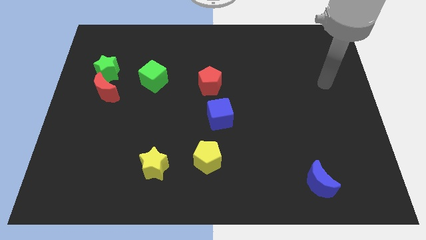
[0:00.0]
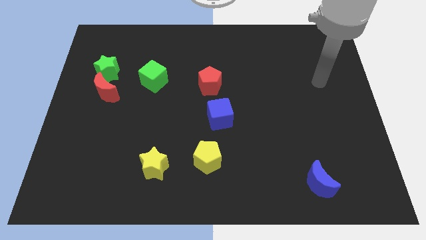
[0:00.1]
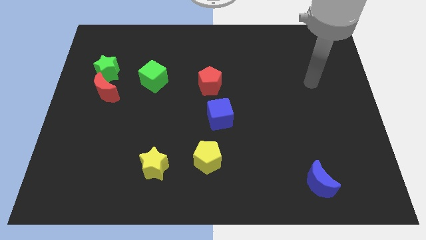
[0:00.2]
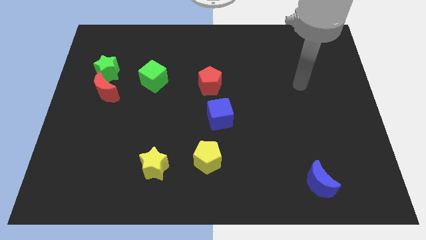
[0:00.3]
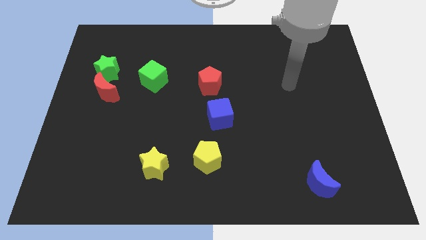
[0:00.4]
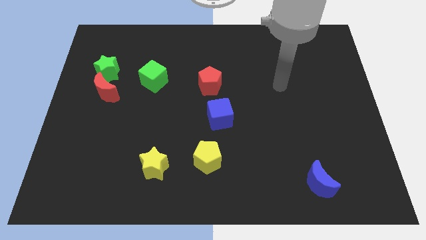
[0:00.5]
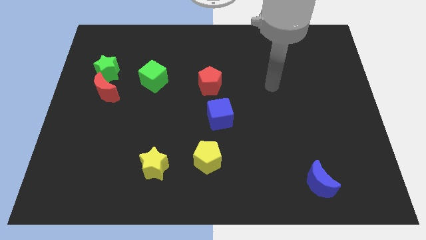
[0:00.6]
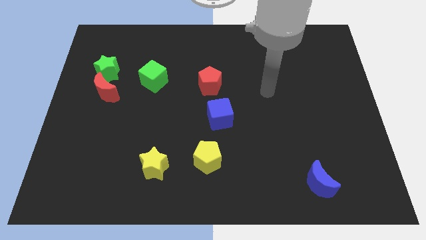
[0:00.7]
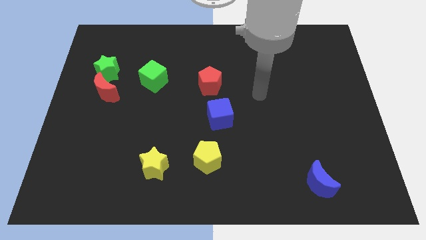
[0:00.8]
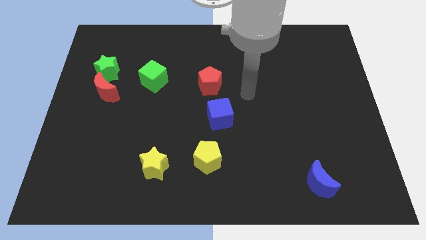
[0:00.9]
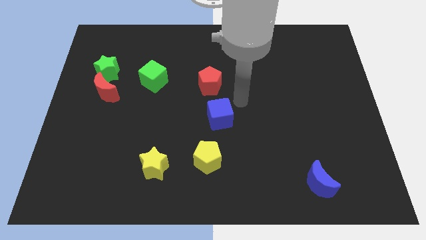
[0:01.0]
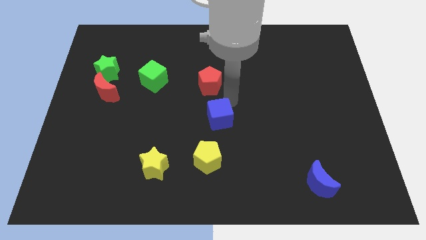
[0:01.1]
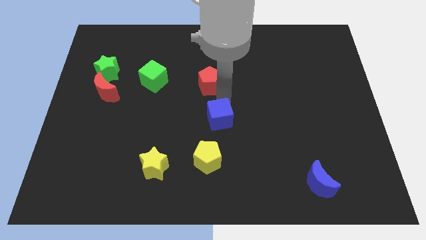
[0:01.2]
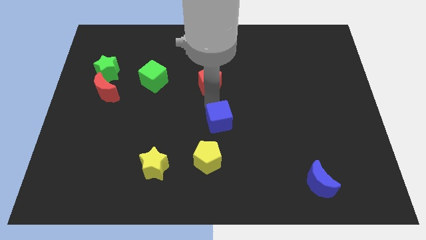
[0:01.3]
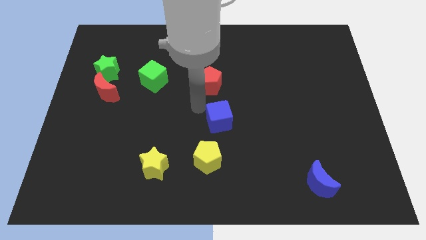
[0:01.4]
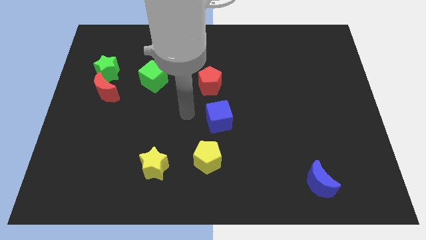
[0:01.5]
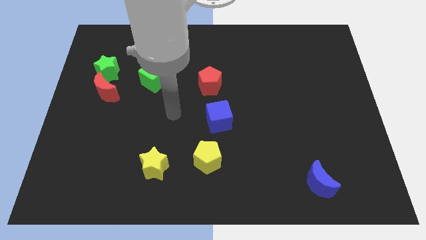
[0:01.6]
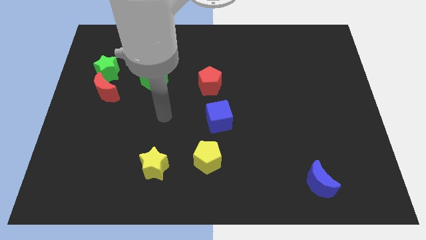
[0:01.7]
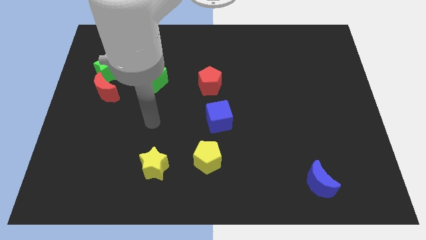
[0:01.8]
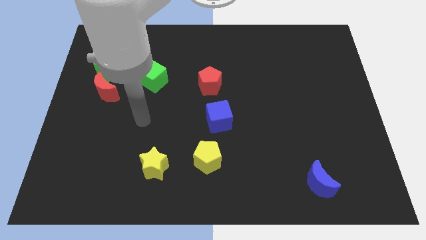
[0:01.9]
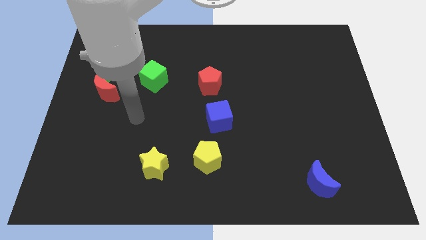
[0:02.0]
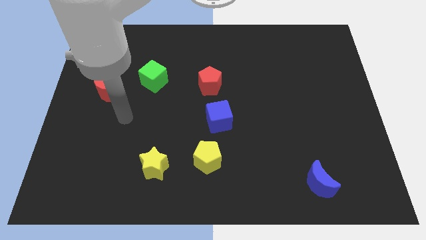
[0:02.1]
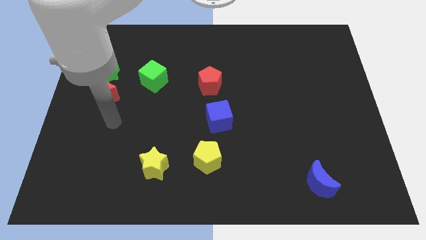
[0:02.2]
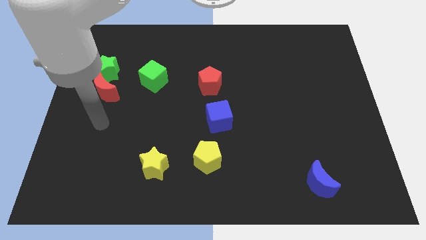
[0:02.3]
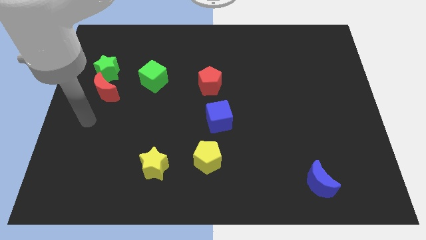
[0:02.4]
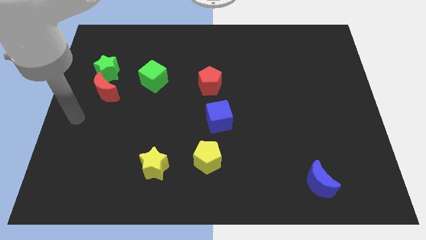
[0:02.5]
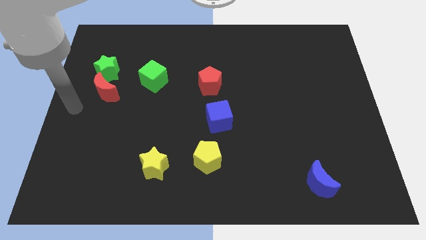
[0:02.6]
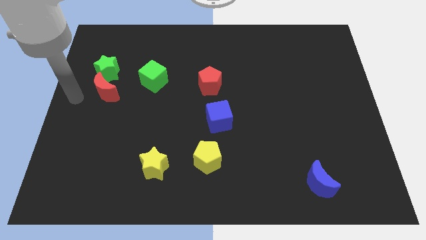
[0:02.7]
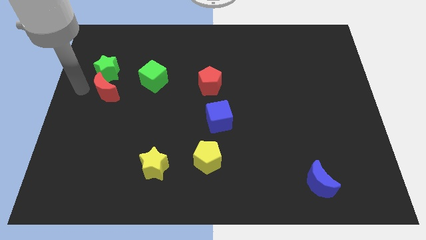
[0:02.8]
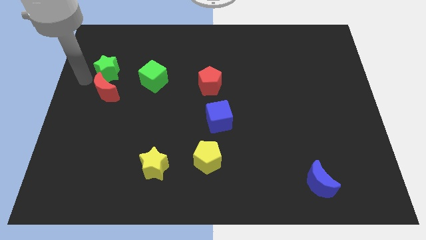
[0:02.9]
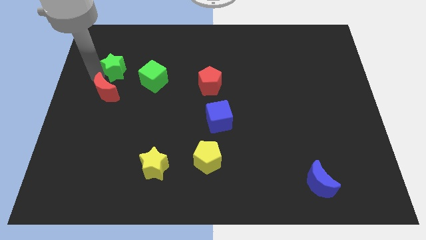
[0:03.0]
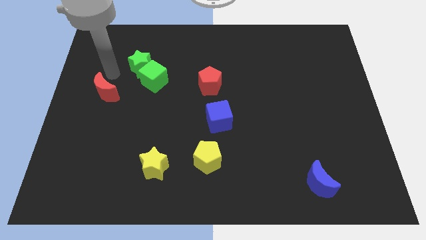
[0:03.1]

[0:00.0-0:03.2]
separate the red moon from the green star

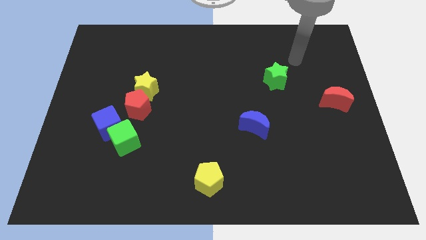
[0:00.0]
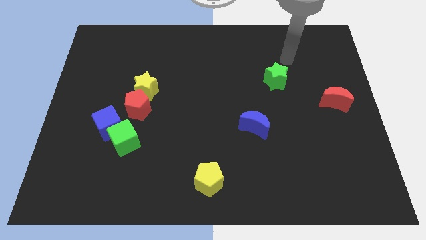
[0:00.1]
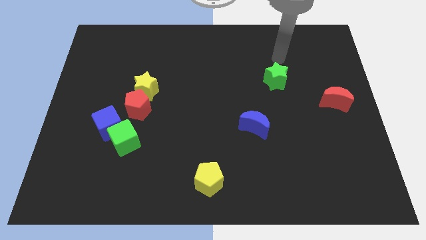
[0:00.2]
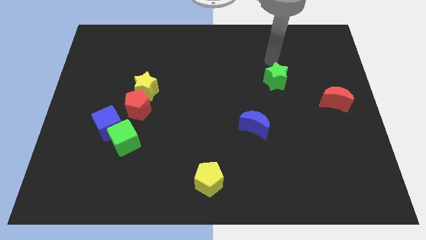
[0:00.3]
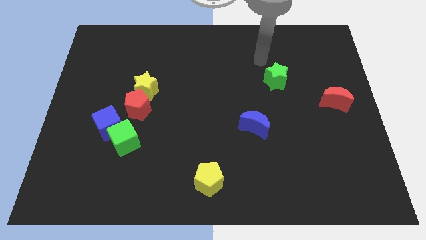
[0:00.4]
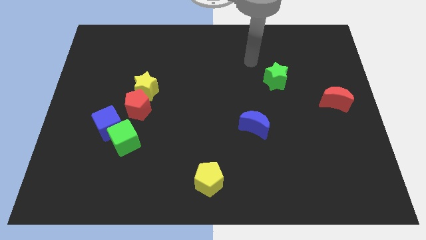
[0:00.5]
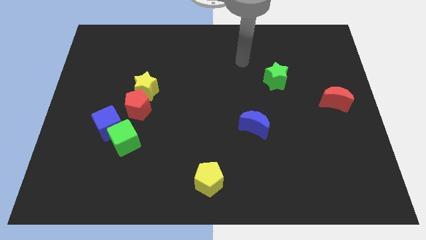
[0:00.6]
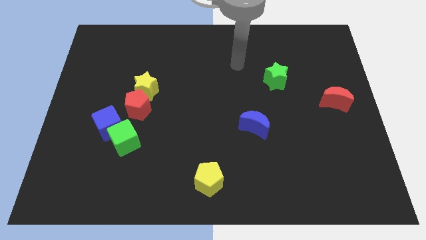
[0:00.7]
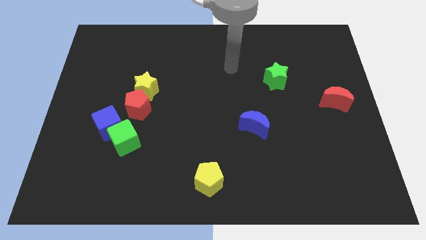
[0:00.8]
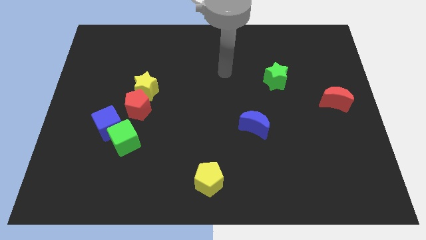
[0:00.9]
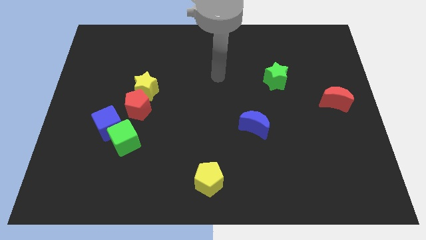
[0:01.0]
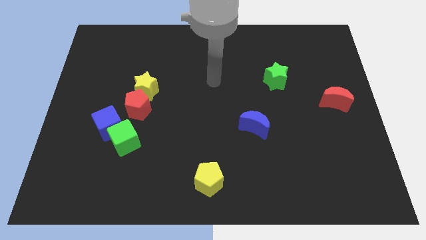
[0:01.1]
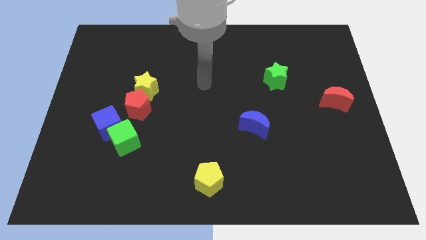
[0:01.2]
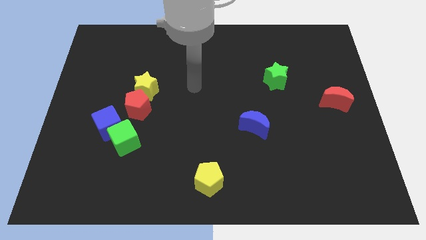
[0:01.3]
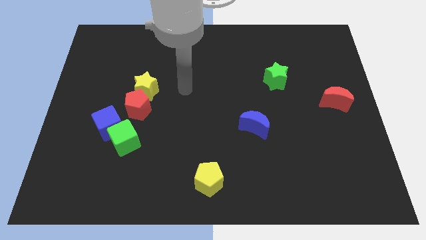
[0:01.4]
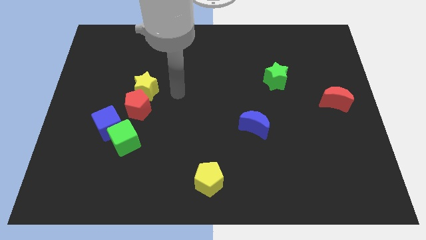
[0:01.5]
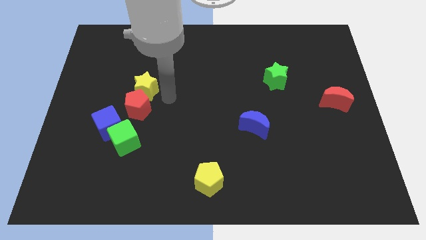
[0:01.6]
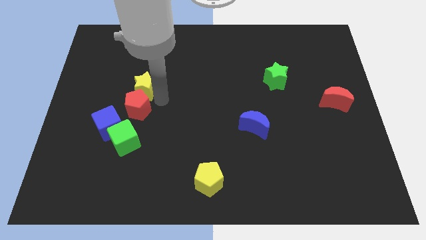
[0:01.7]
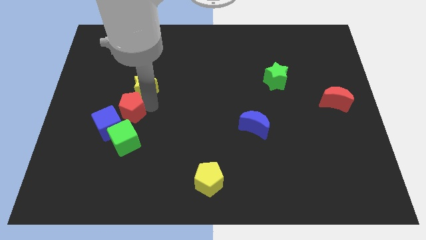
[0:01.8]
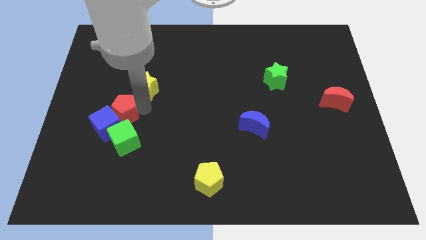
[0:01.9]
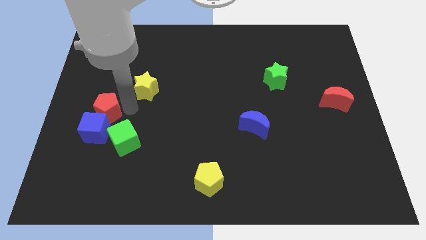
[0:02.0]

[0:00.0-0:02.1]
separate the yellow star from the red pentagon

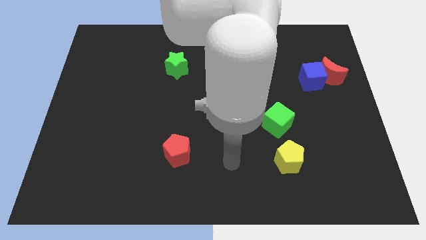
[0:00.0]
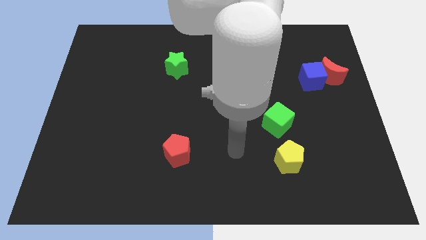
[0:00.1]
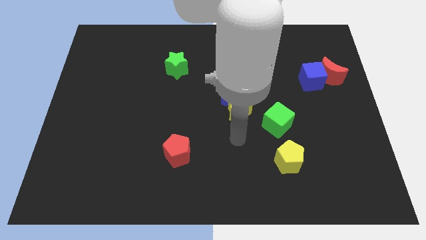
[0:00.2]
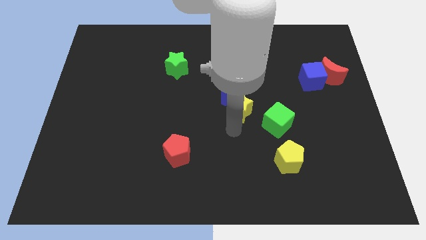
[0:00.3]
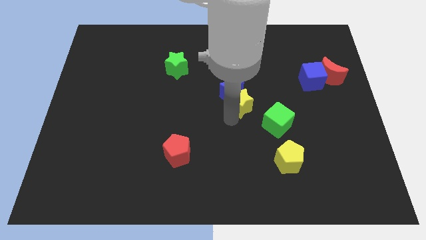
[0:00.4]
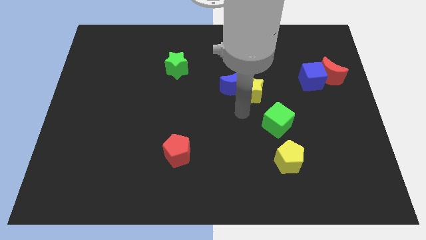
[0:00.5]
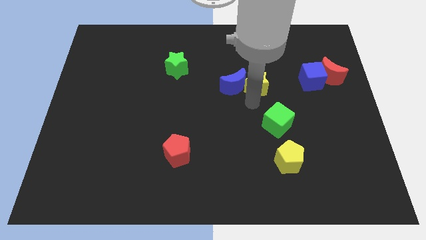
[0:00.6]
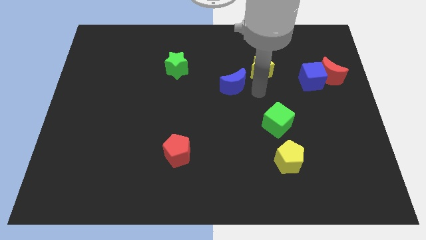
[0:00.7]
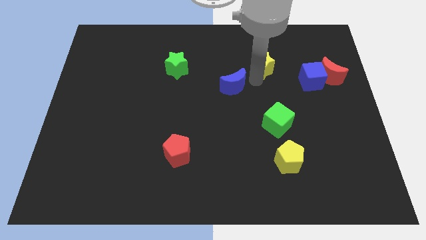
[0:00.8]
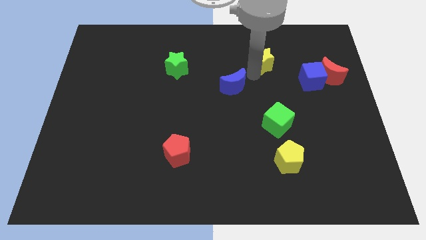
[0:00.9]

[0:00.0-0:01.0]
separate the blue moon from the yellow star

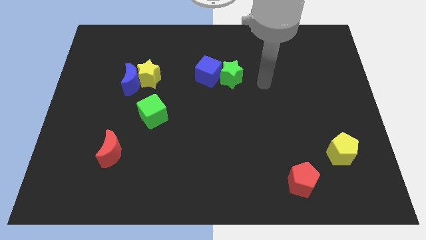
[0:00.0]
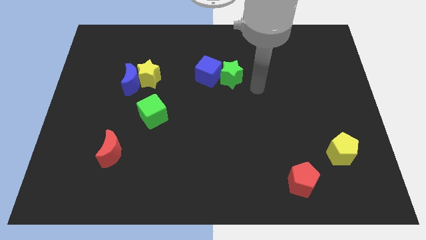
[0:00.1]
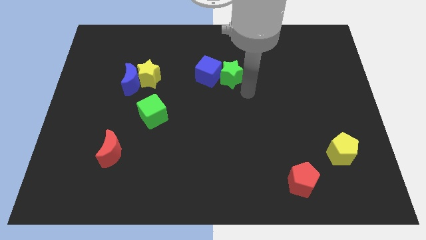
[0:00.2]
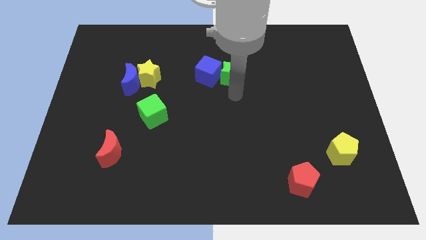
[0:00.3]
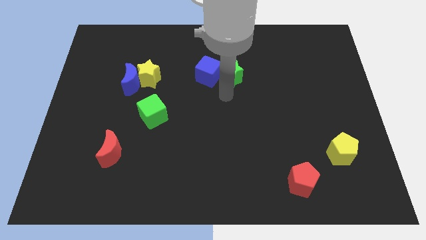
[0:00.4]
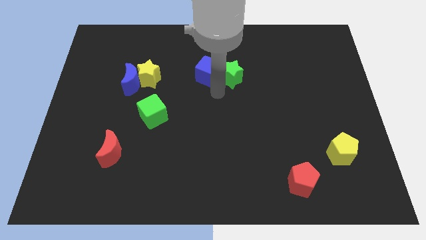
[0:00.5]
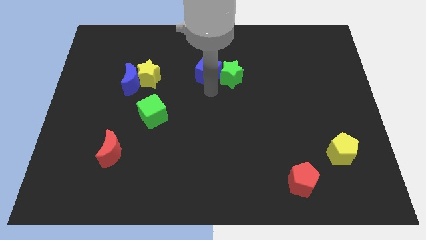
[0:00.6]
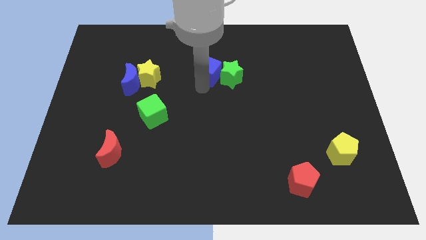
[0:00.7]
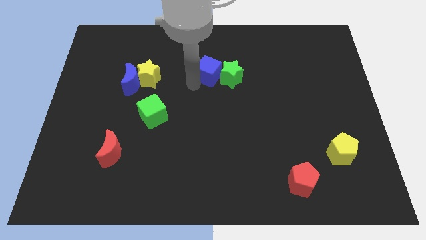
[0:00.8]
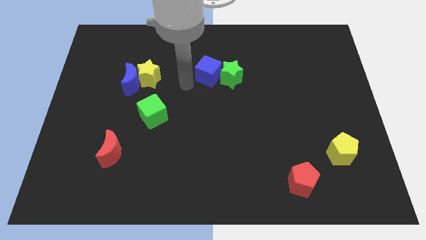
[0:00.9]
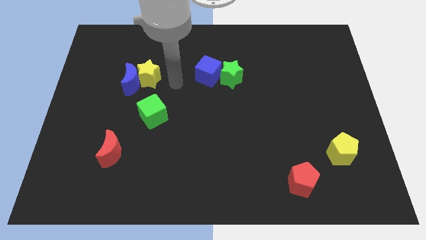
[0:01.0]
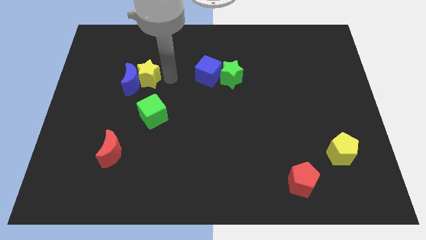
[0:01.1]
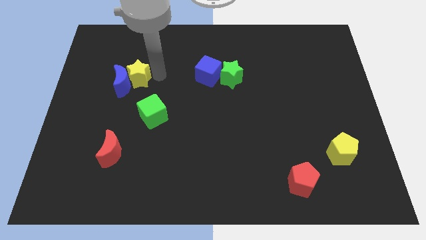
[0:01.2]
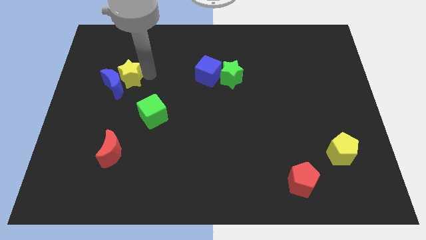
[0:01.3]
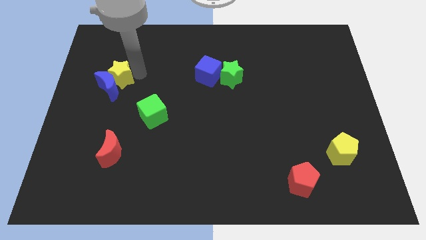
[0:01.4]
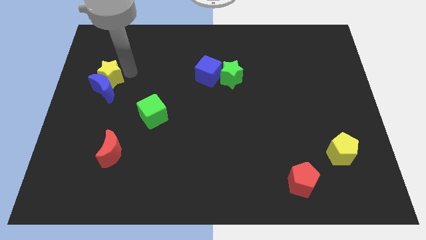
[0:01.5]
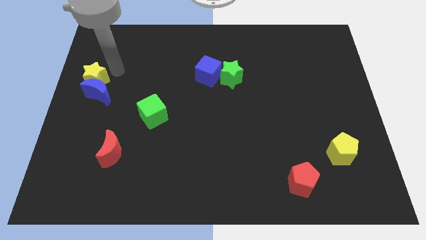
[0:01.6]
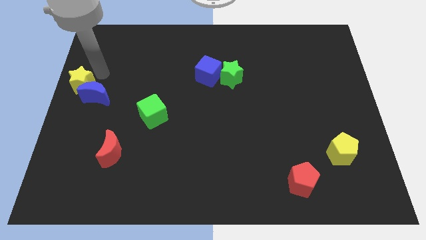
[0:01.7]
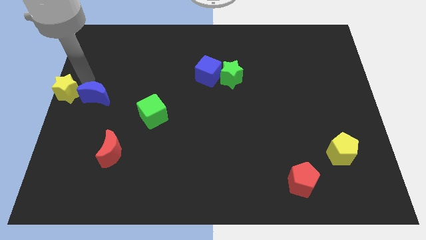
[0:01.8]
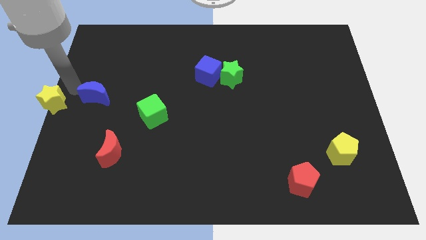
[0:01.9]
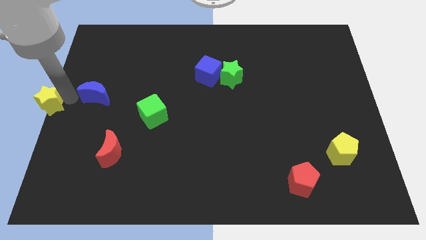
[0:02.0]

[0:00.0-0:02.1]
move the blue moon away from the yellow star

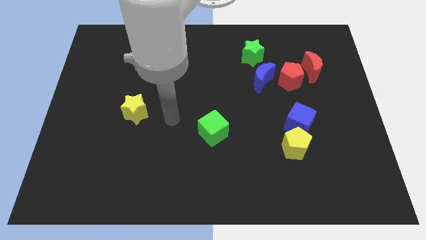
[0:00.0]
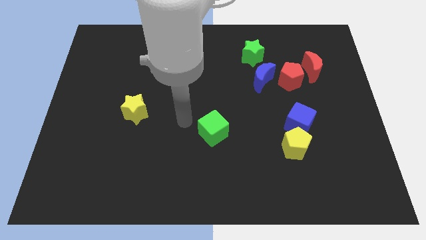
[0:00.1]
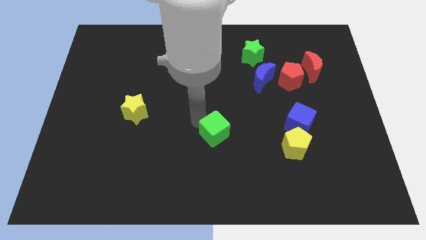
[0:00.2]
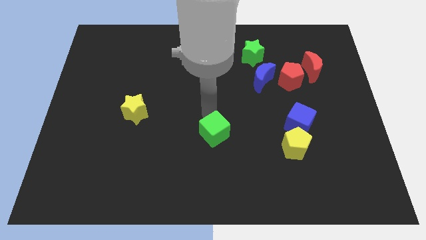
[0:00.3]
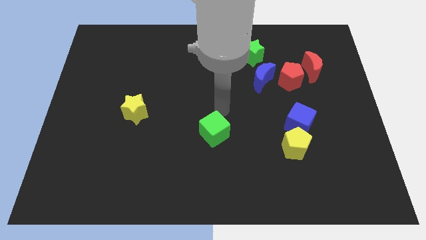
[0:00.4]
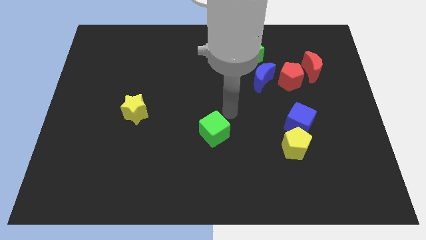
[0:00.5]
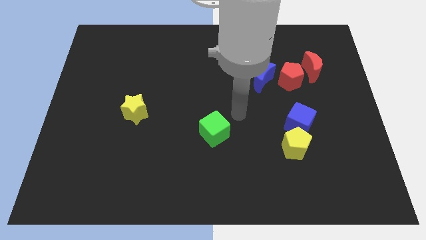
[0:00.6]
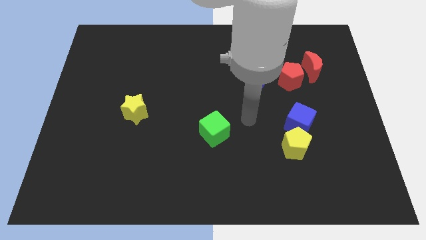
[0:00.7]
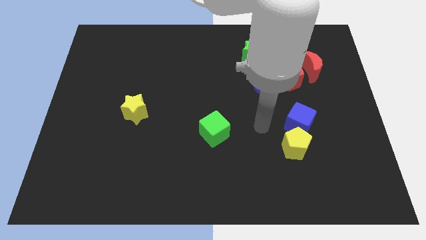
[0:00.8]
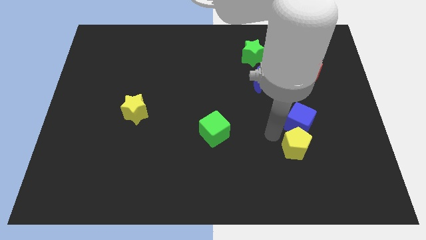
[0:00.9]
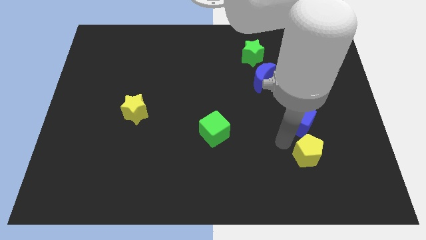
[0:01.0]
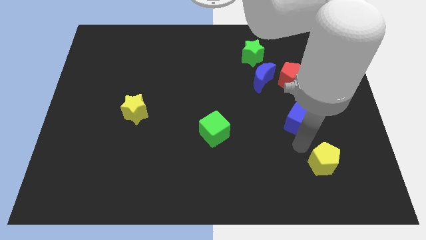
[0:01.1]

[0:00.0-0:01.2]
separate the blue cube from the yellow pentagon
